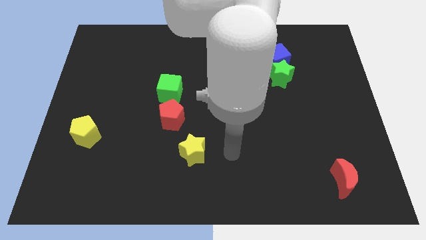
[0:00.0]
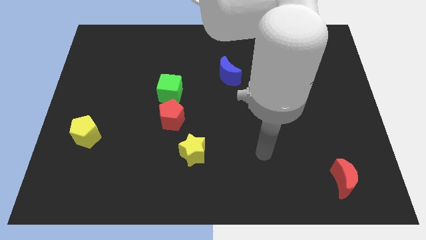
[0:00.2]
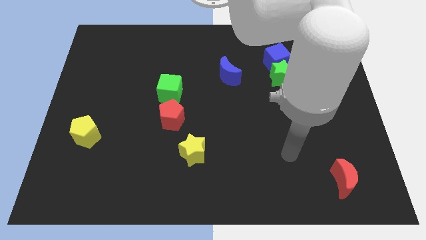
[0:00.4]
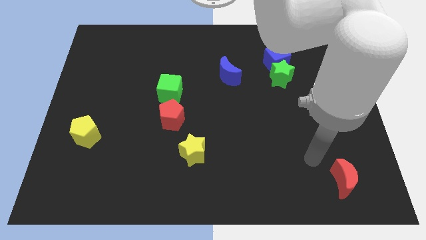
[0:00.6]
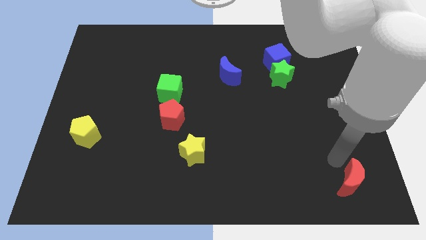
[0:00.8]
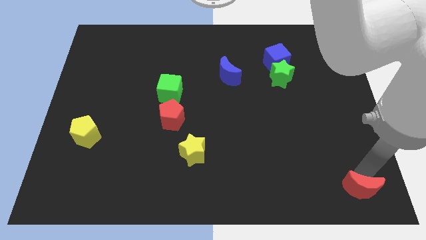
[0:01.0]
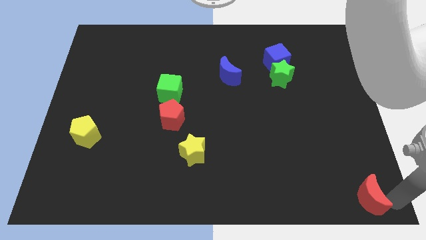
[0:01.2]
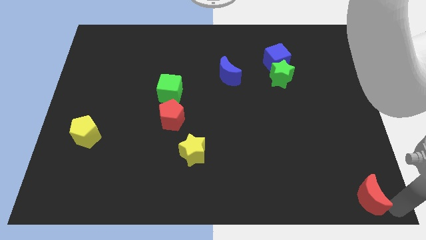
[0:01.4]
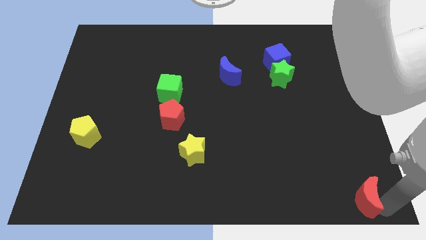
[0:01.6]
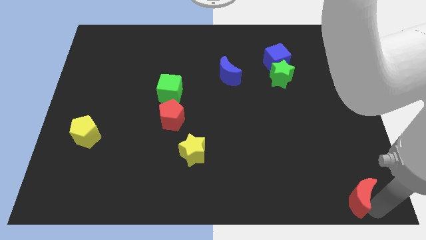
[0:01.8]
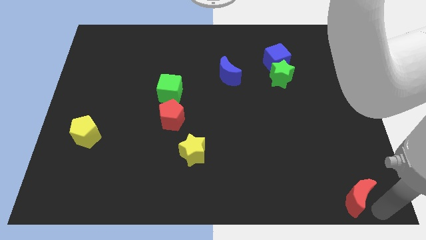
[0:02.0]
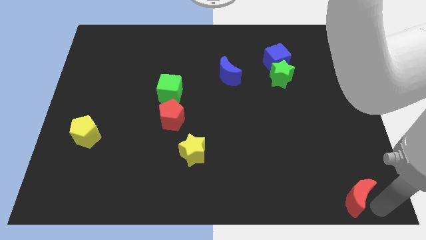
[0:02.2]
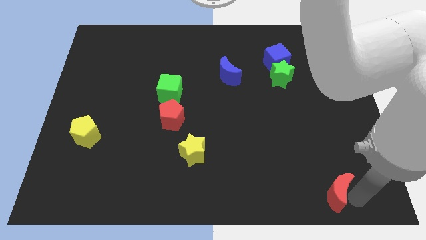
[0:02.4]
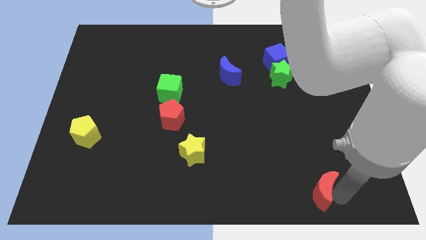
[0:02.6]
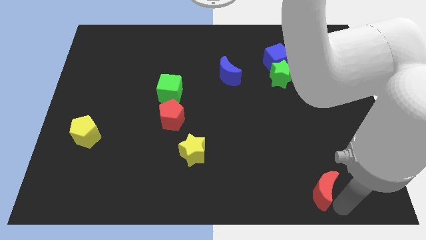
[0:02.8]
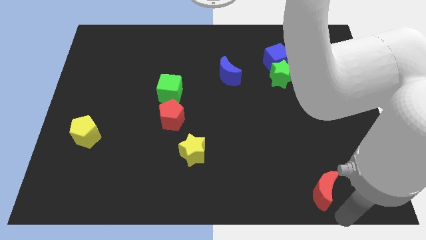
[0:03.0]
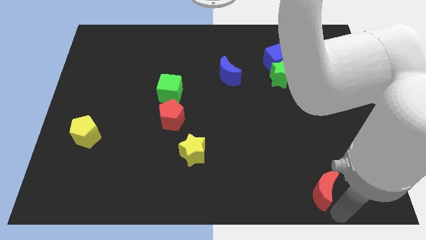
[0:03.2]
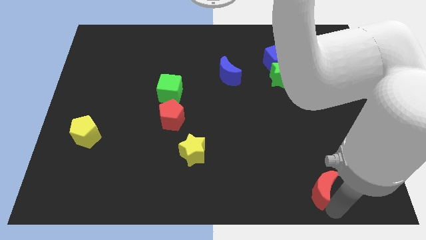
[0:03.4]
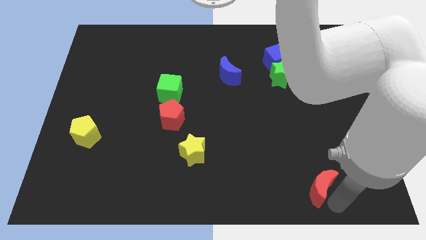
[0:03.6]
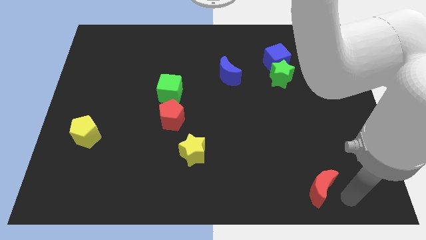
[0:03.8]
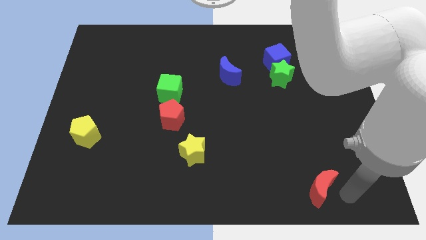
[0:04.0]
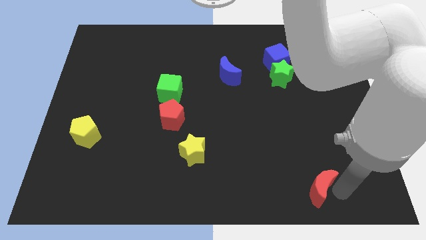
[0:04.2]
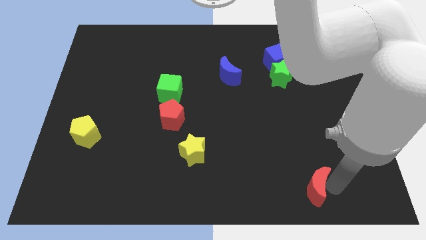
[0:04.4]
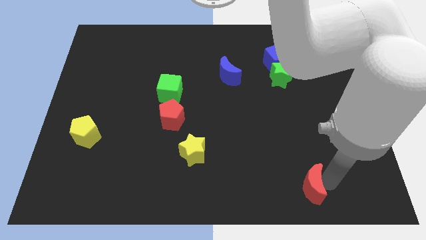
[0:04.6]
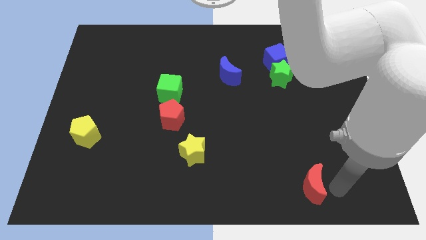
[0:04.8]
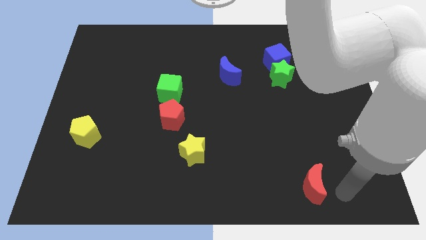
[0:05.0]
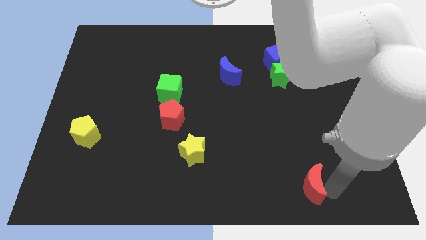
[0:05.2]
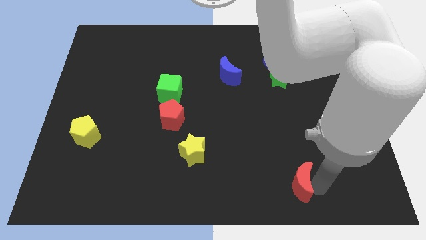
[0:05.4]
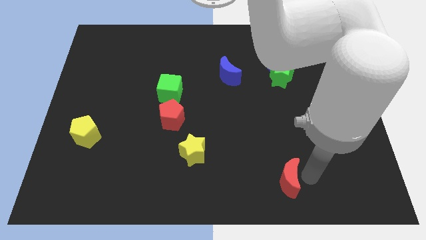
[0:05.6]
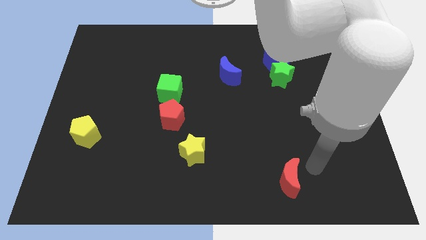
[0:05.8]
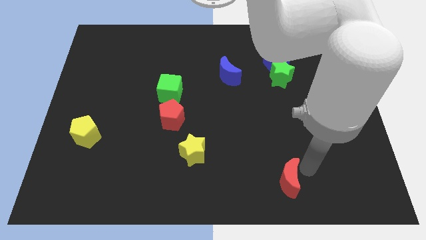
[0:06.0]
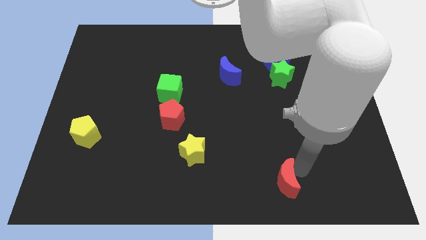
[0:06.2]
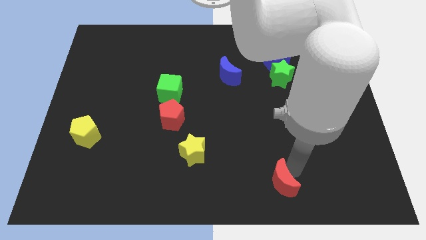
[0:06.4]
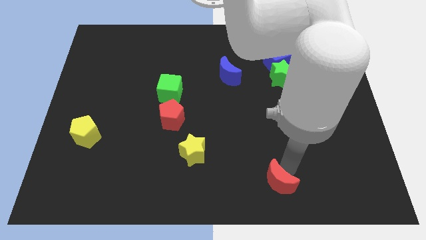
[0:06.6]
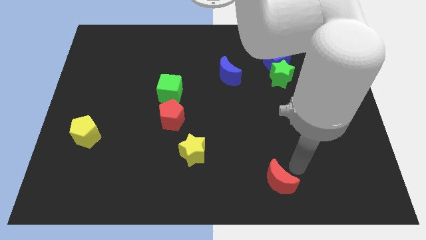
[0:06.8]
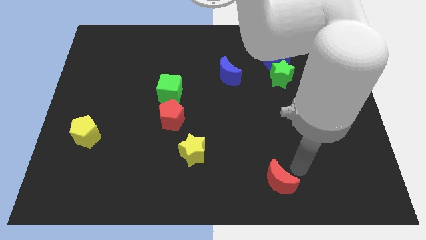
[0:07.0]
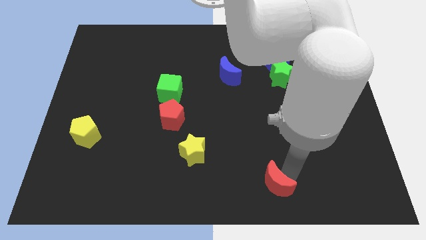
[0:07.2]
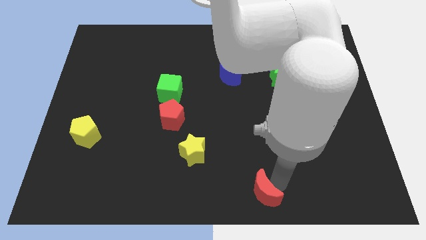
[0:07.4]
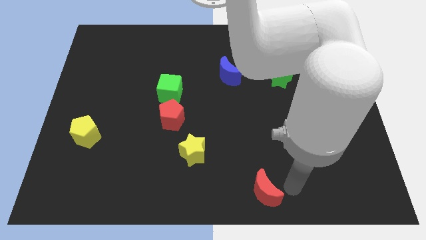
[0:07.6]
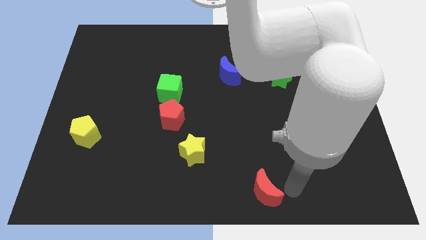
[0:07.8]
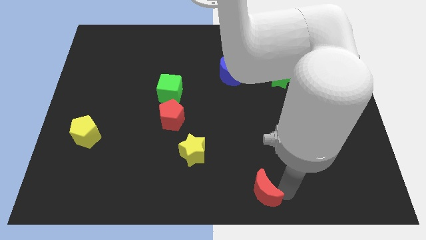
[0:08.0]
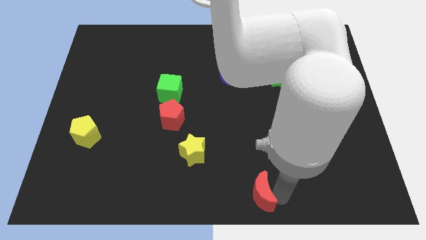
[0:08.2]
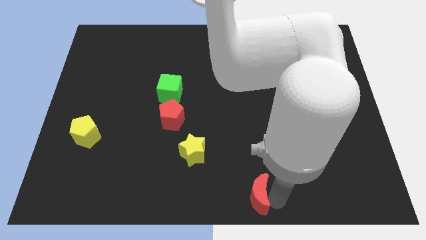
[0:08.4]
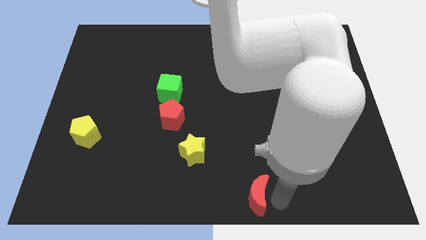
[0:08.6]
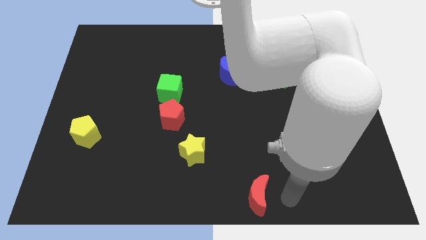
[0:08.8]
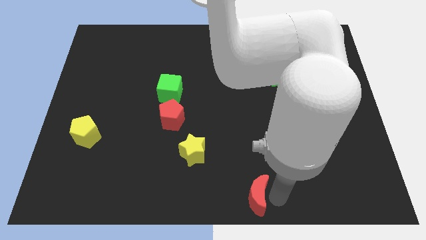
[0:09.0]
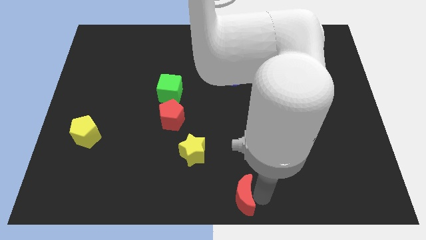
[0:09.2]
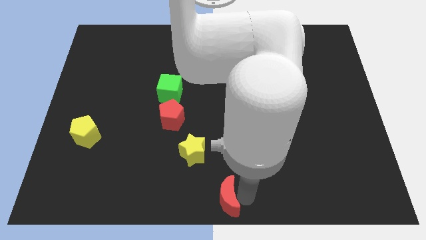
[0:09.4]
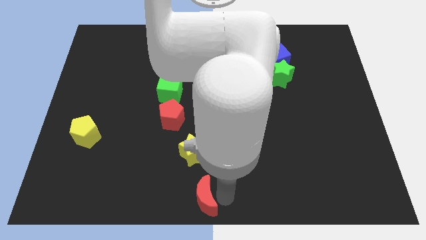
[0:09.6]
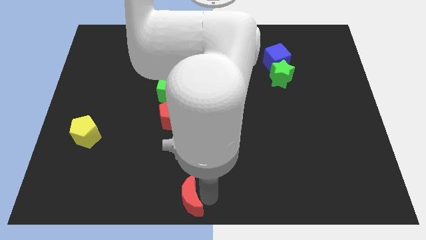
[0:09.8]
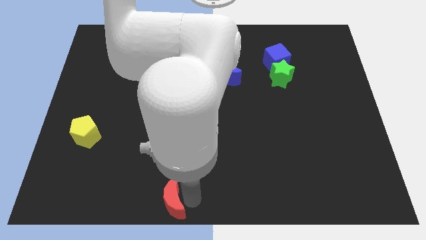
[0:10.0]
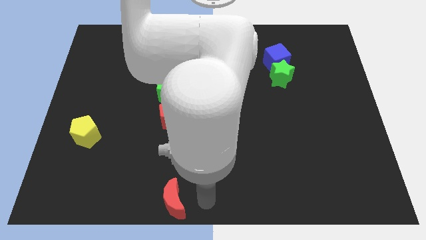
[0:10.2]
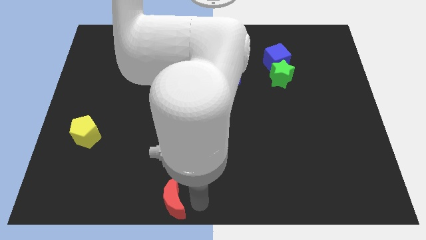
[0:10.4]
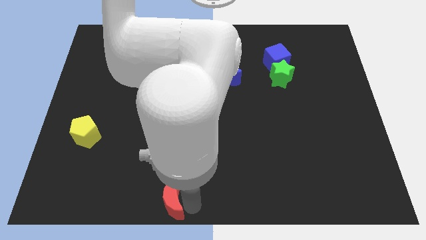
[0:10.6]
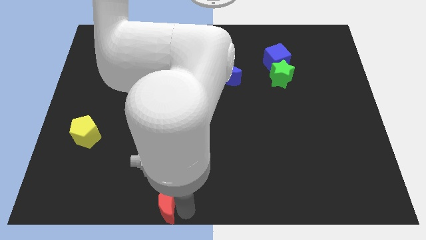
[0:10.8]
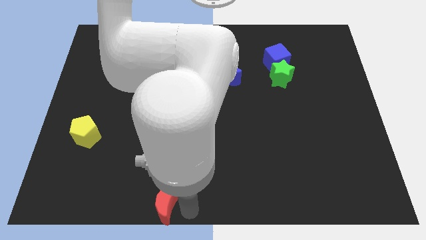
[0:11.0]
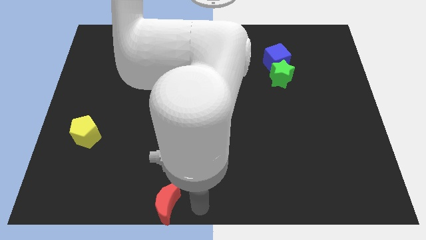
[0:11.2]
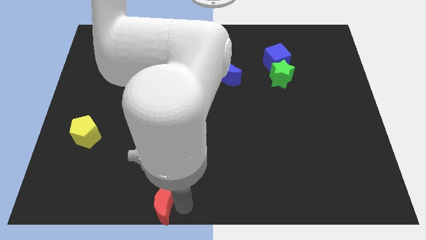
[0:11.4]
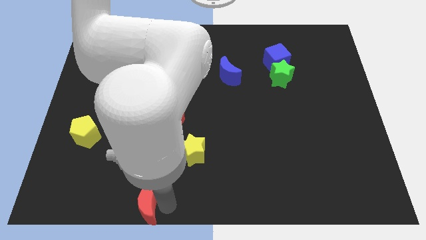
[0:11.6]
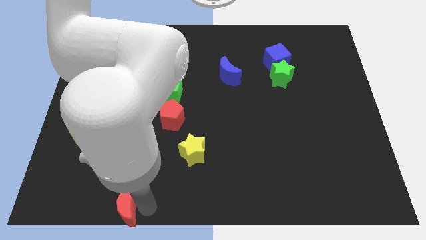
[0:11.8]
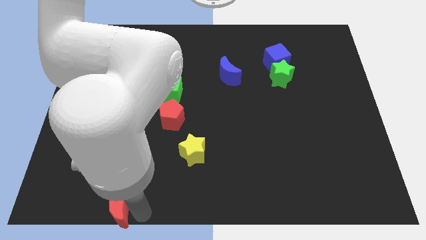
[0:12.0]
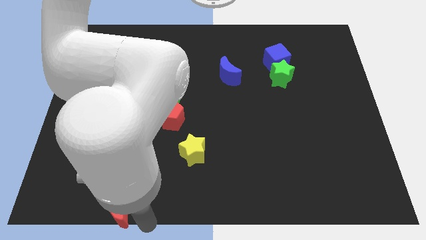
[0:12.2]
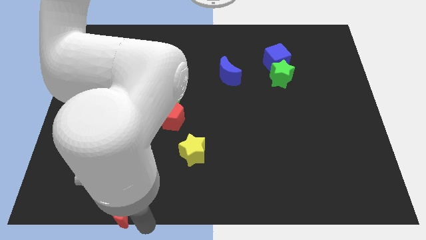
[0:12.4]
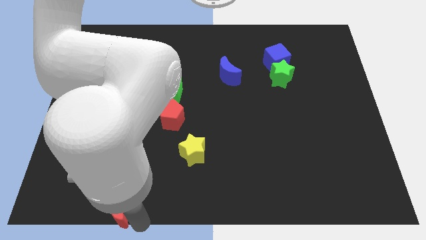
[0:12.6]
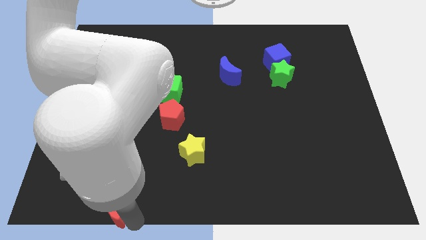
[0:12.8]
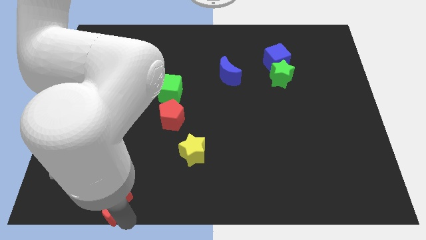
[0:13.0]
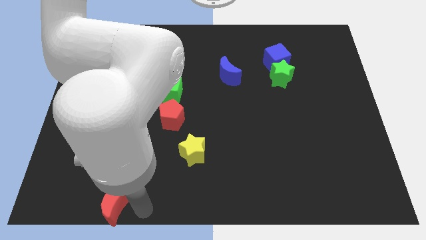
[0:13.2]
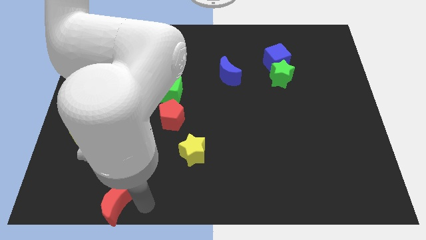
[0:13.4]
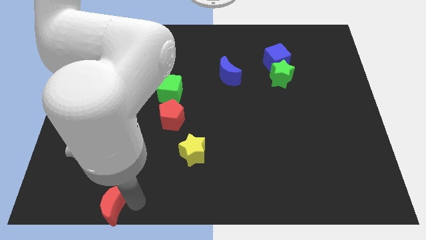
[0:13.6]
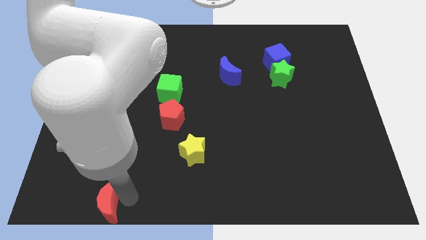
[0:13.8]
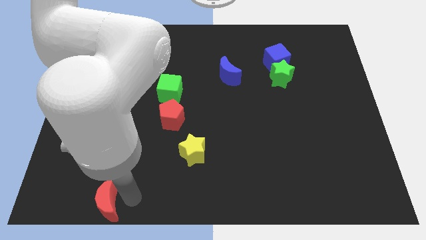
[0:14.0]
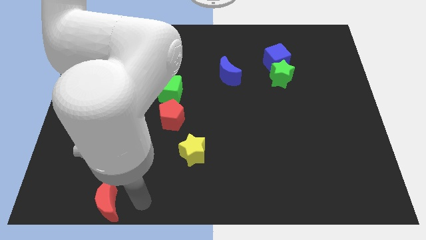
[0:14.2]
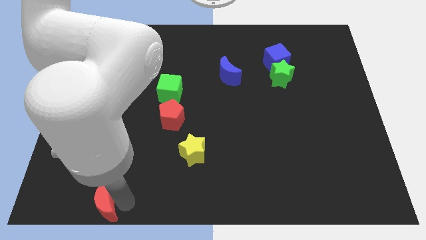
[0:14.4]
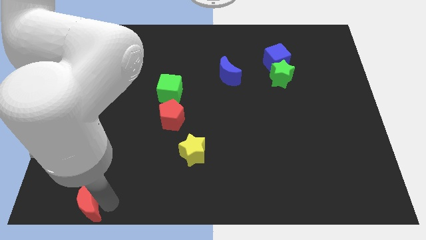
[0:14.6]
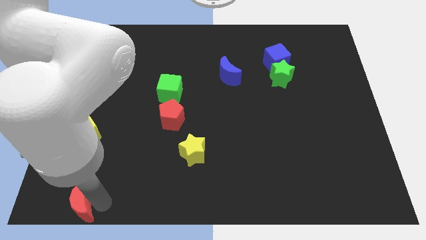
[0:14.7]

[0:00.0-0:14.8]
slide the red moon to the bottom left of the board
